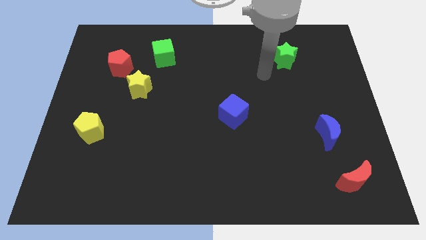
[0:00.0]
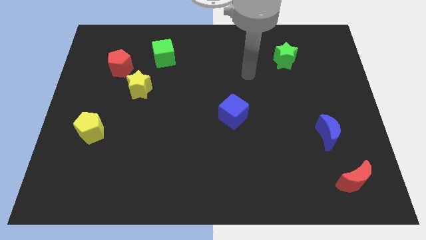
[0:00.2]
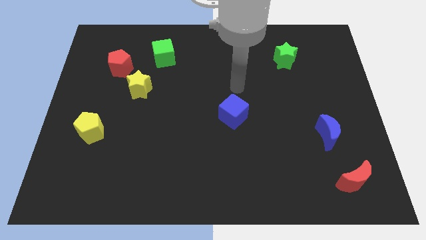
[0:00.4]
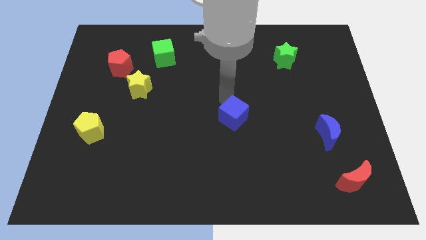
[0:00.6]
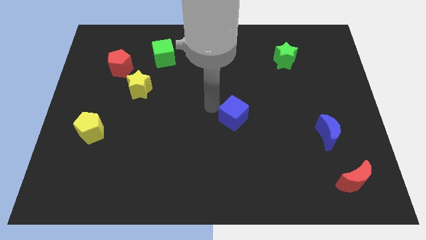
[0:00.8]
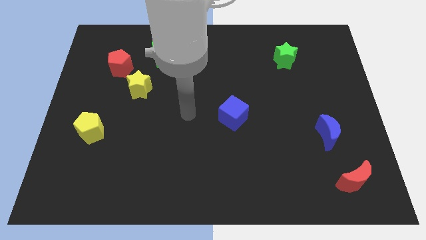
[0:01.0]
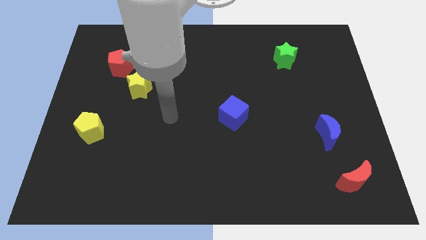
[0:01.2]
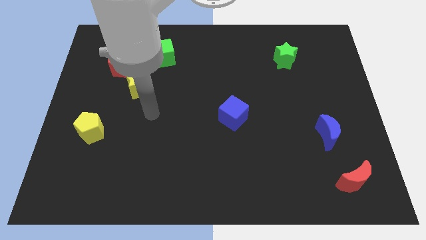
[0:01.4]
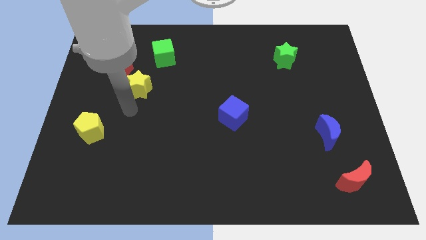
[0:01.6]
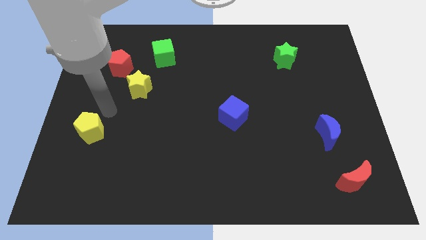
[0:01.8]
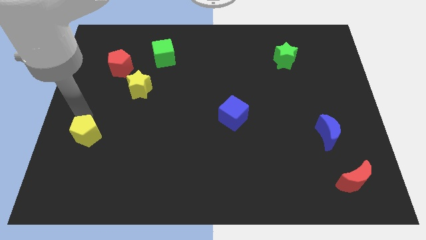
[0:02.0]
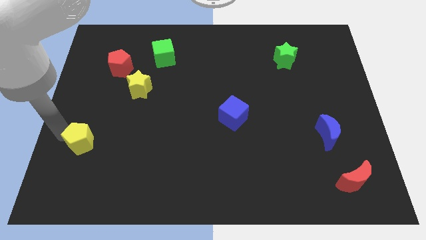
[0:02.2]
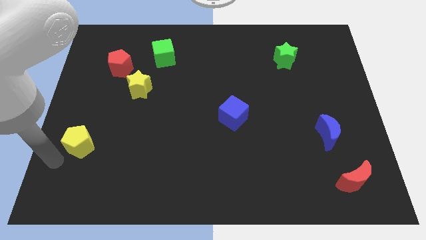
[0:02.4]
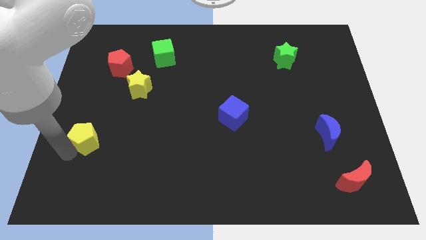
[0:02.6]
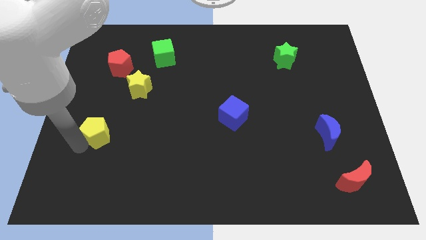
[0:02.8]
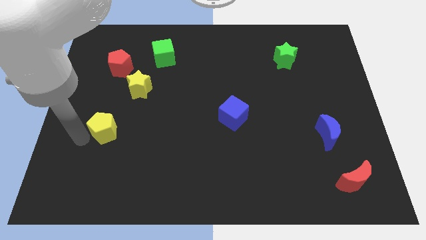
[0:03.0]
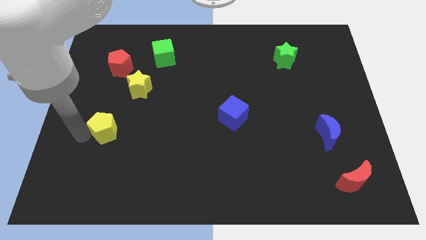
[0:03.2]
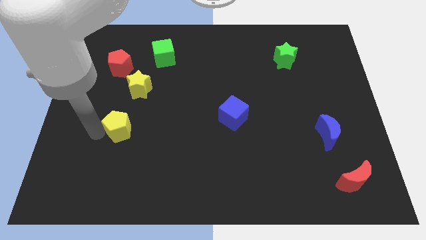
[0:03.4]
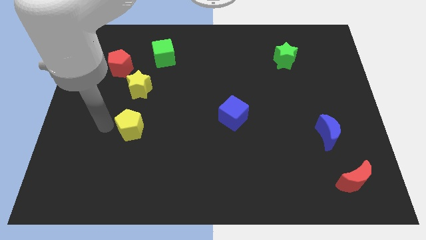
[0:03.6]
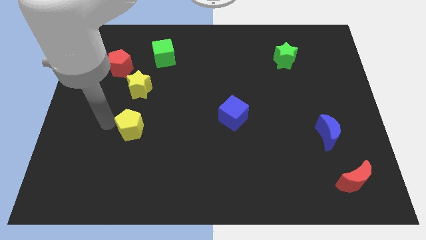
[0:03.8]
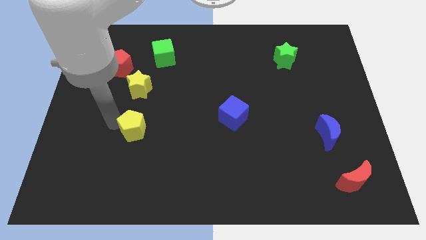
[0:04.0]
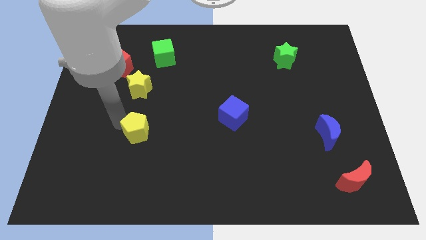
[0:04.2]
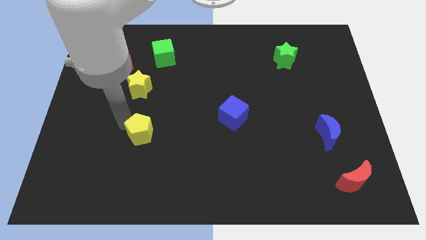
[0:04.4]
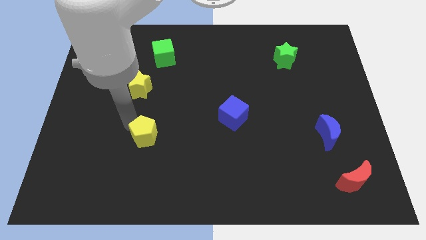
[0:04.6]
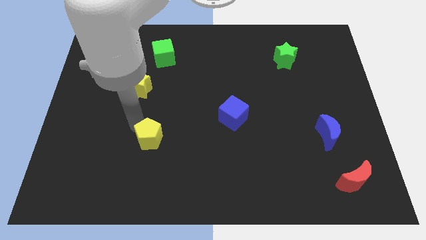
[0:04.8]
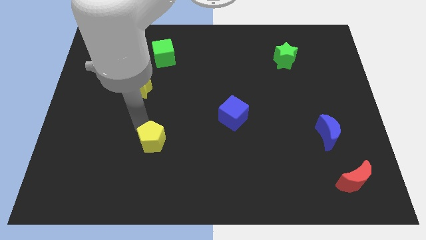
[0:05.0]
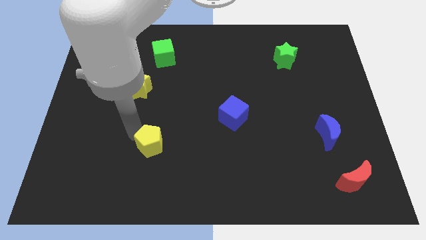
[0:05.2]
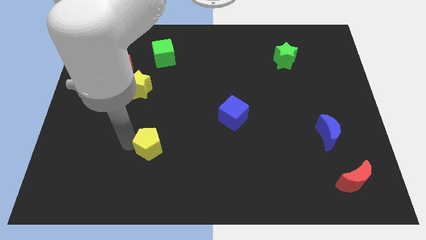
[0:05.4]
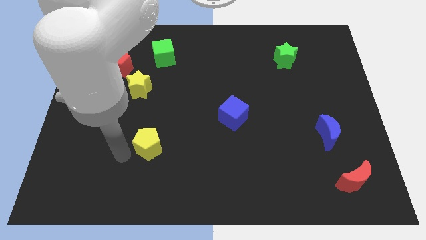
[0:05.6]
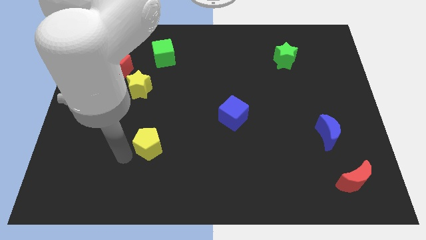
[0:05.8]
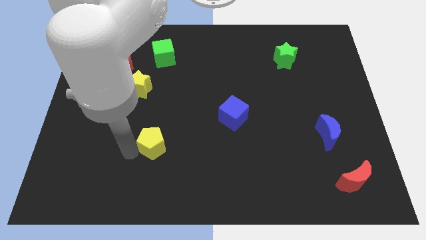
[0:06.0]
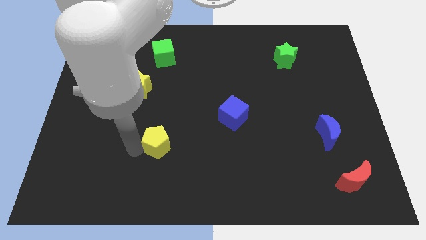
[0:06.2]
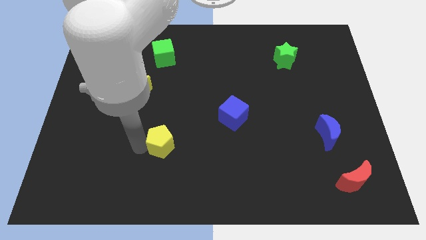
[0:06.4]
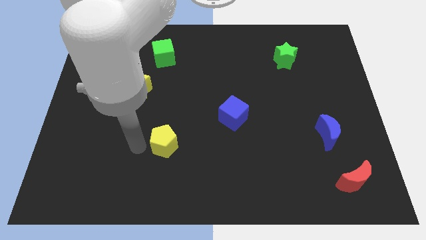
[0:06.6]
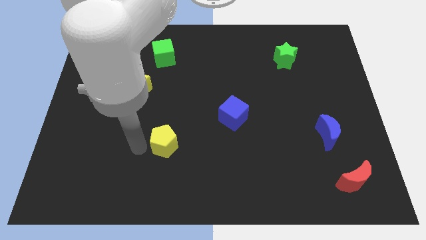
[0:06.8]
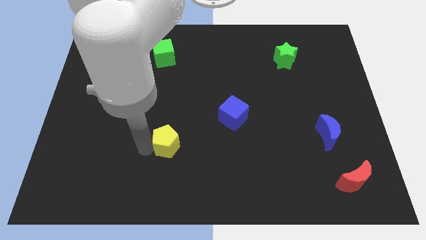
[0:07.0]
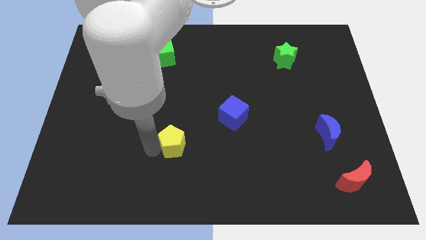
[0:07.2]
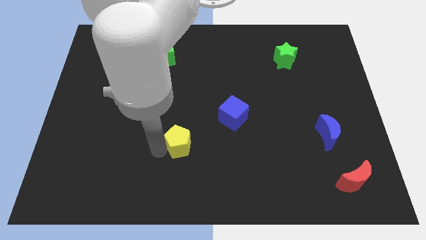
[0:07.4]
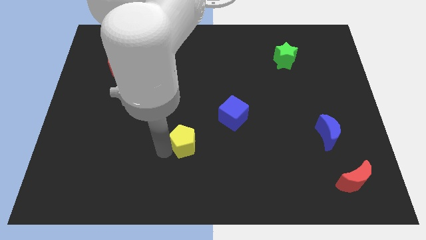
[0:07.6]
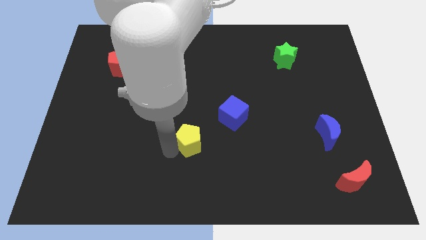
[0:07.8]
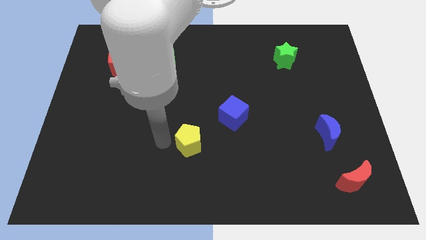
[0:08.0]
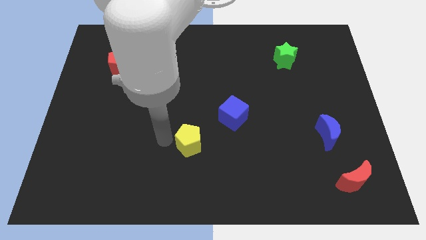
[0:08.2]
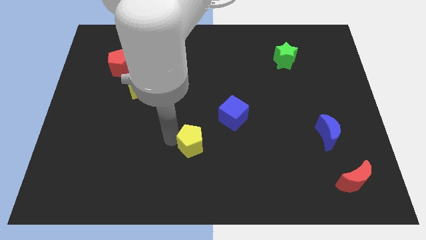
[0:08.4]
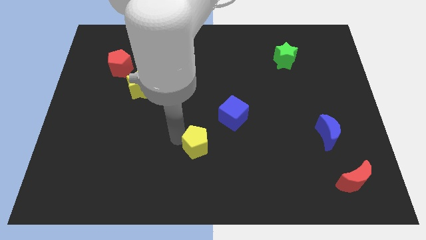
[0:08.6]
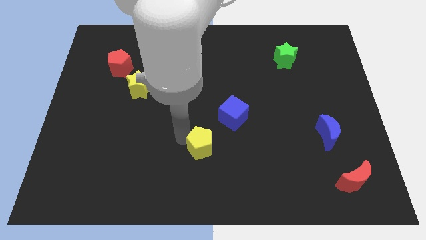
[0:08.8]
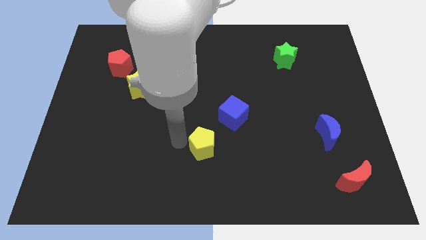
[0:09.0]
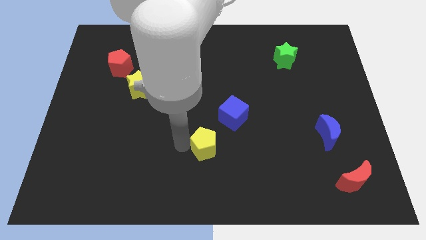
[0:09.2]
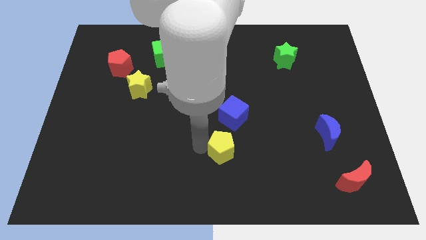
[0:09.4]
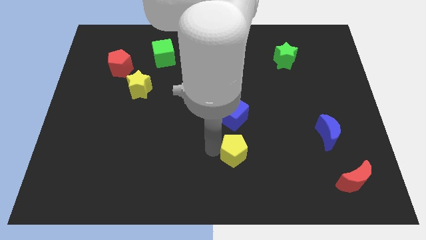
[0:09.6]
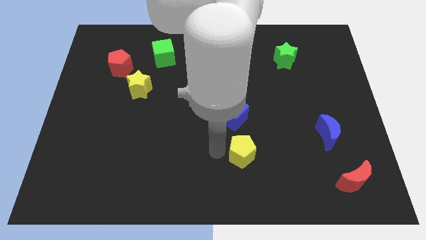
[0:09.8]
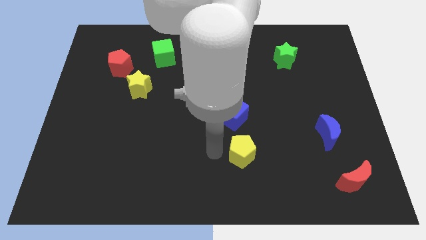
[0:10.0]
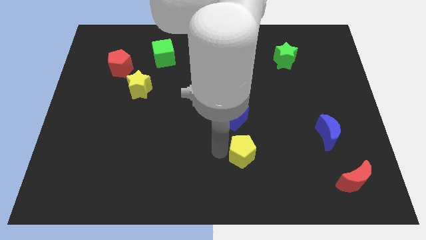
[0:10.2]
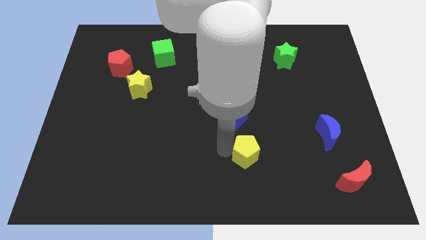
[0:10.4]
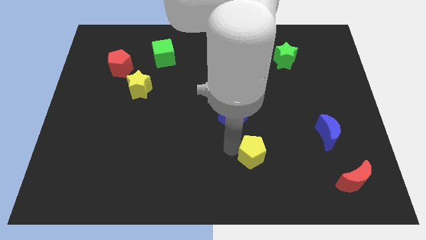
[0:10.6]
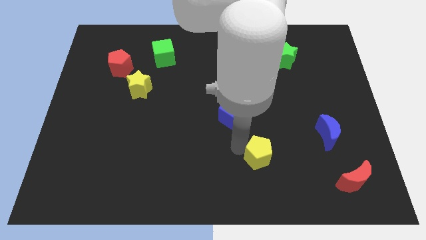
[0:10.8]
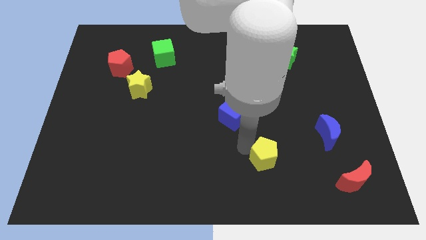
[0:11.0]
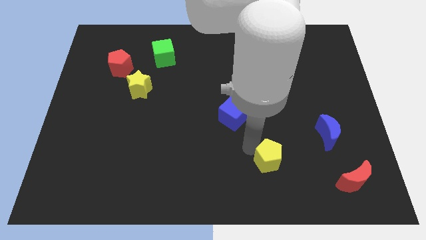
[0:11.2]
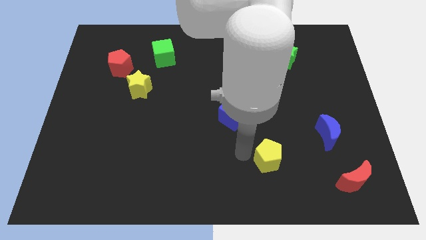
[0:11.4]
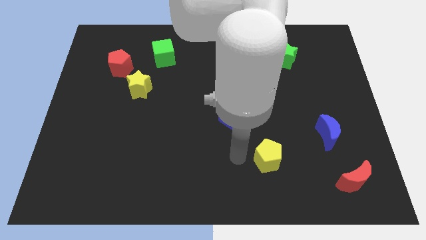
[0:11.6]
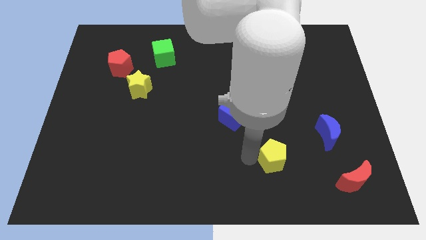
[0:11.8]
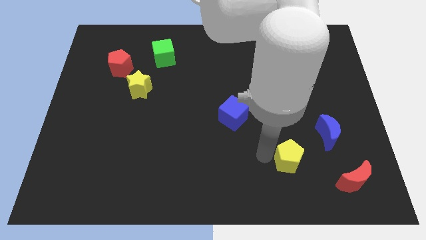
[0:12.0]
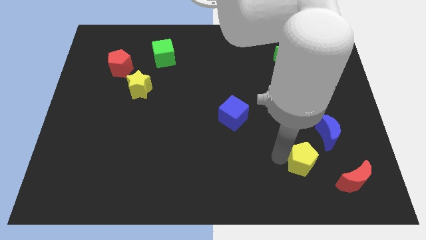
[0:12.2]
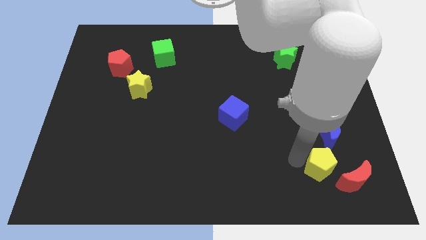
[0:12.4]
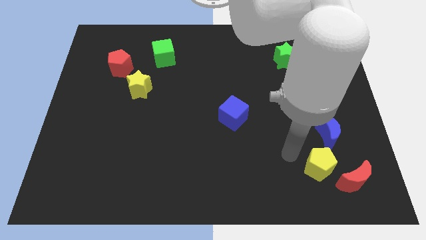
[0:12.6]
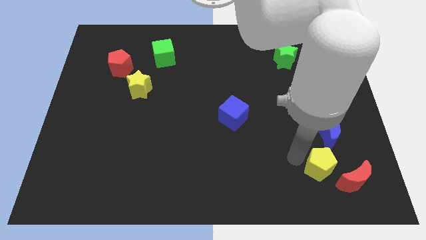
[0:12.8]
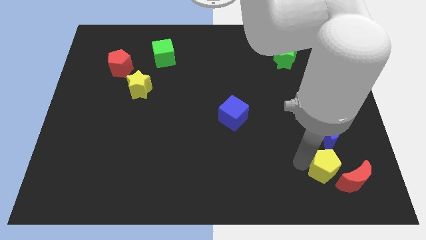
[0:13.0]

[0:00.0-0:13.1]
push the yellow pentagon towards the red moon

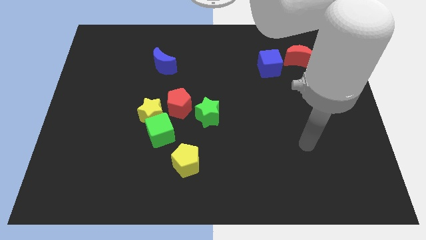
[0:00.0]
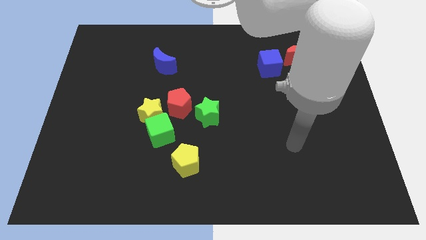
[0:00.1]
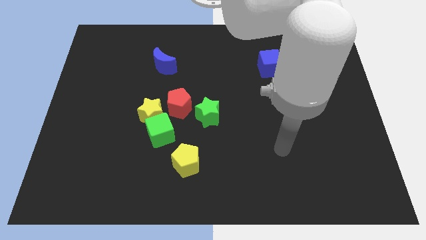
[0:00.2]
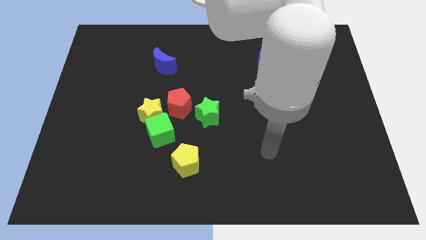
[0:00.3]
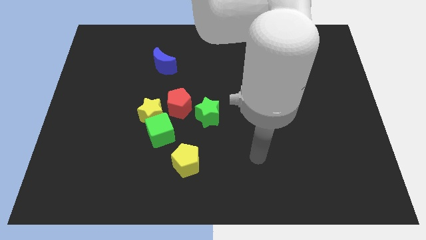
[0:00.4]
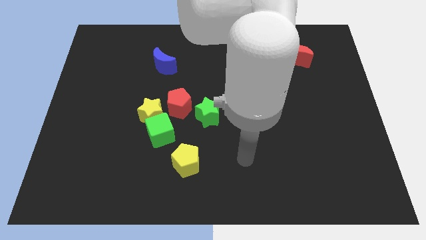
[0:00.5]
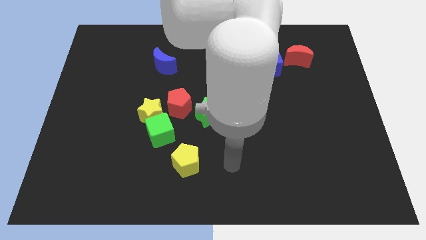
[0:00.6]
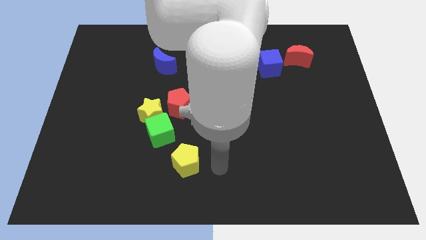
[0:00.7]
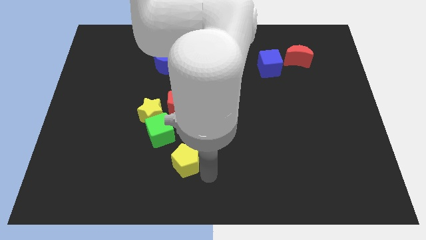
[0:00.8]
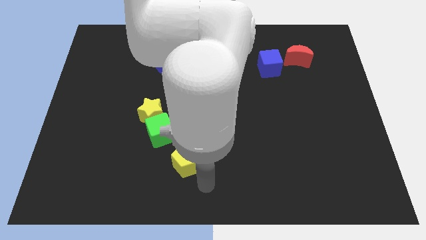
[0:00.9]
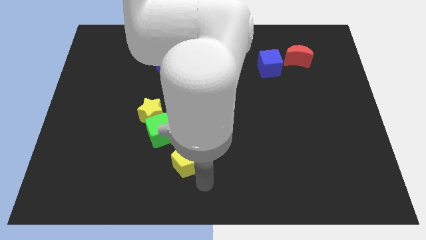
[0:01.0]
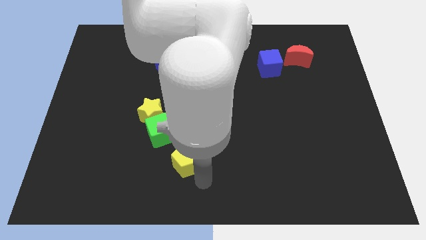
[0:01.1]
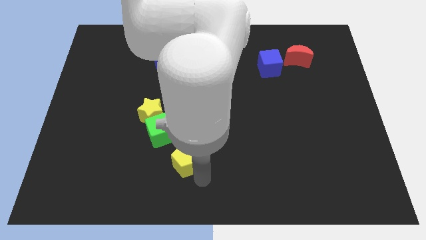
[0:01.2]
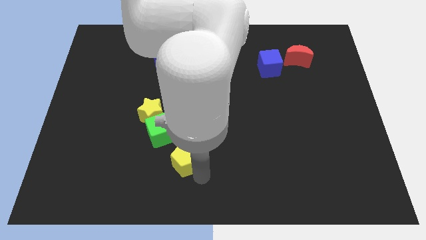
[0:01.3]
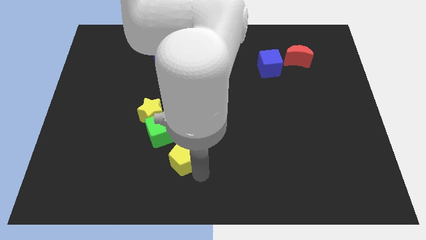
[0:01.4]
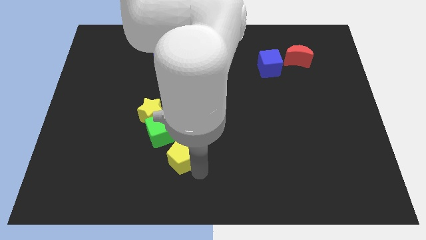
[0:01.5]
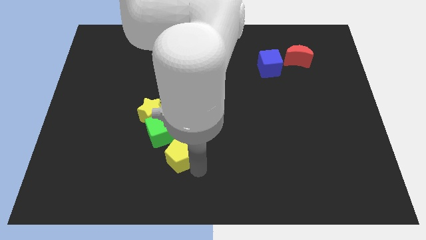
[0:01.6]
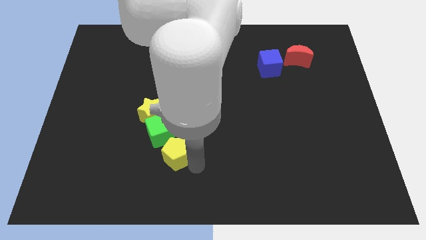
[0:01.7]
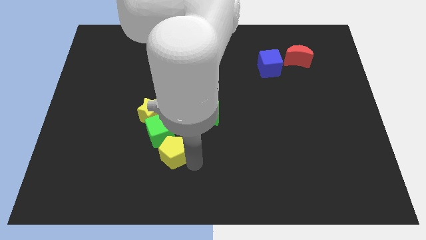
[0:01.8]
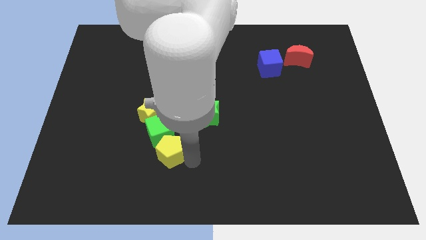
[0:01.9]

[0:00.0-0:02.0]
put the yellow pentagon towards the green cube
